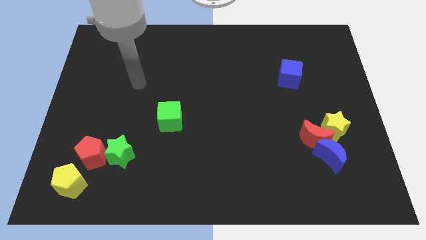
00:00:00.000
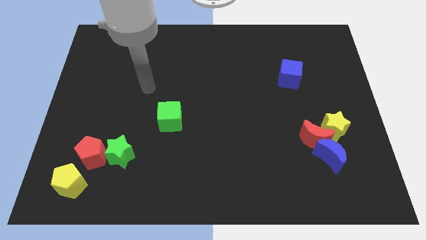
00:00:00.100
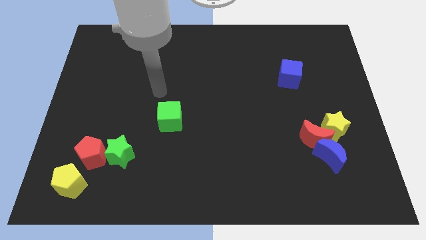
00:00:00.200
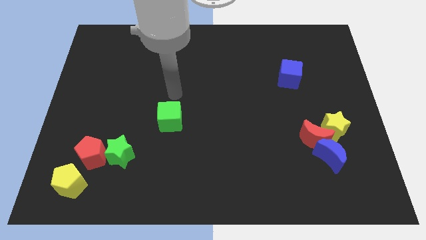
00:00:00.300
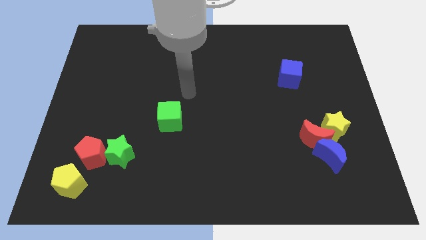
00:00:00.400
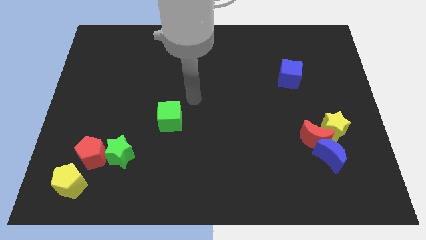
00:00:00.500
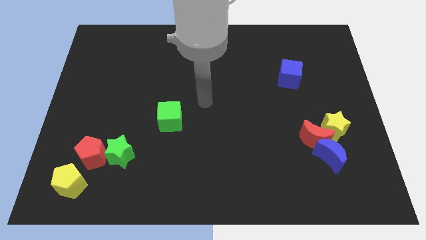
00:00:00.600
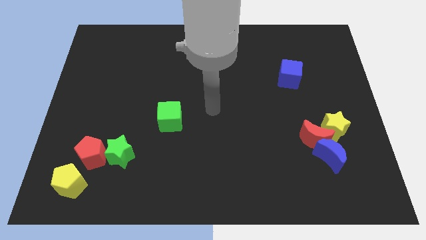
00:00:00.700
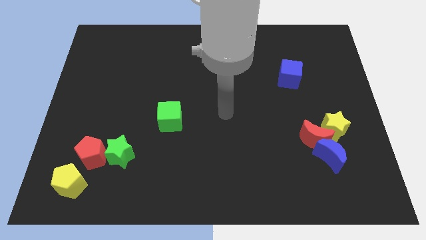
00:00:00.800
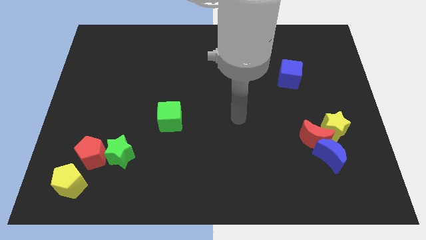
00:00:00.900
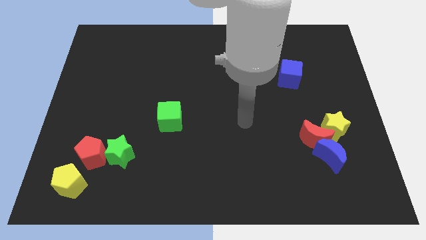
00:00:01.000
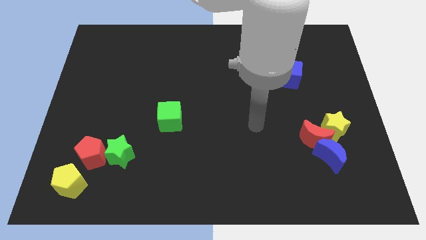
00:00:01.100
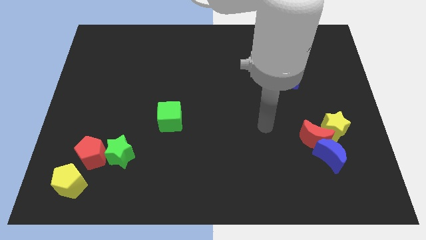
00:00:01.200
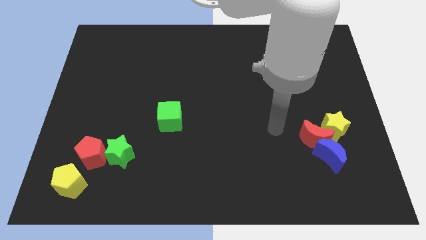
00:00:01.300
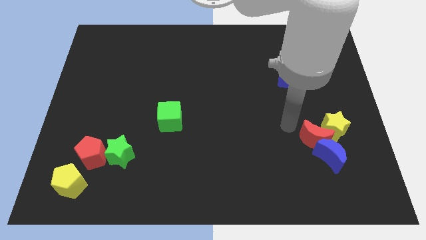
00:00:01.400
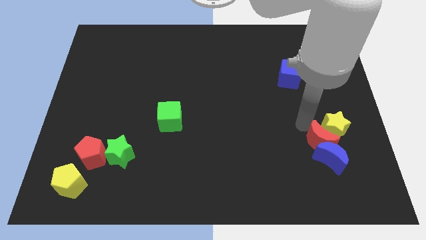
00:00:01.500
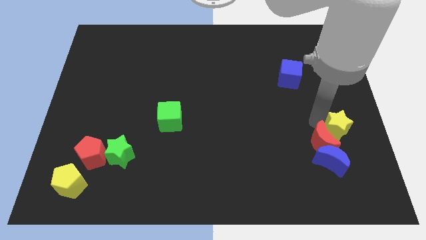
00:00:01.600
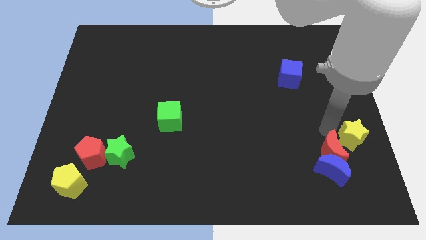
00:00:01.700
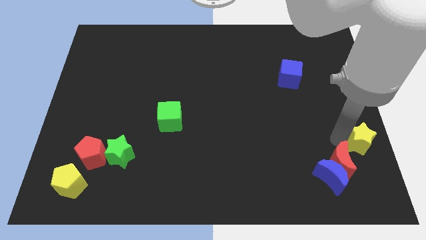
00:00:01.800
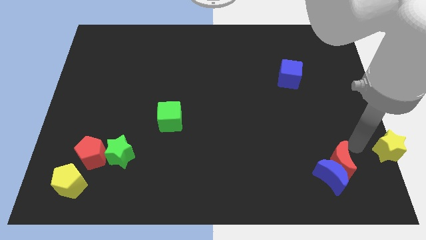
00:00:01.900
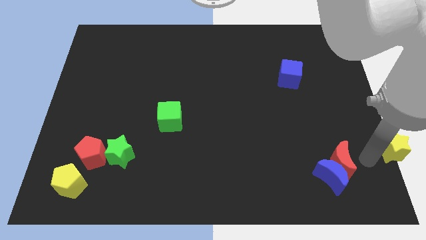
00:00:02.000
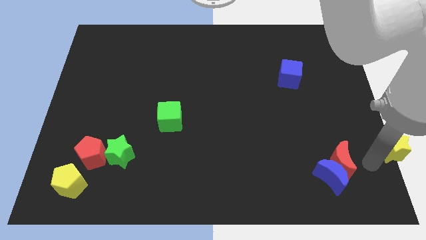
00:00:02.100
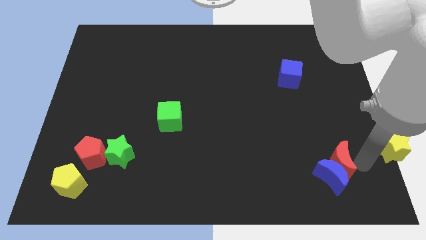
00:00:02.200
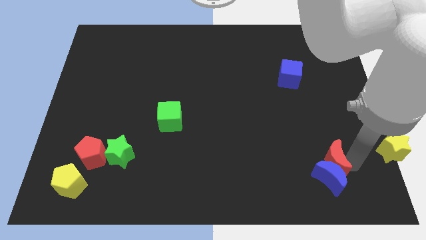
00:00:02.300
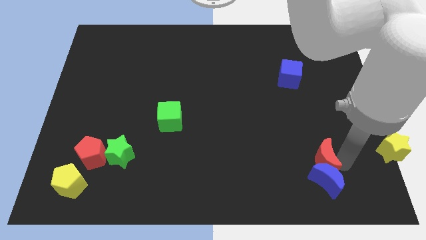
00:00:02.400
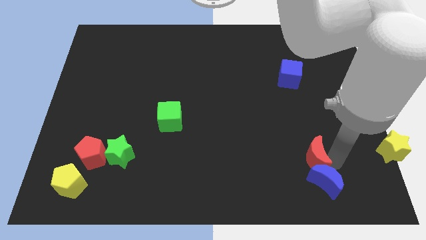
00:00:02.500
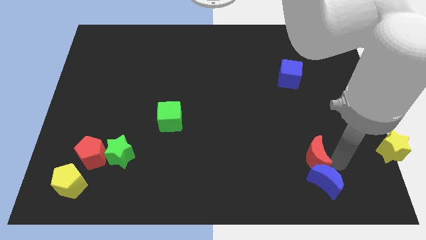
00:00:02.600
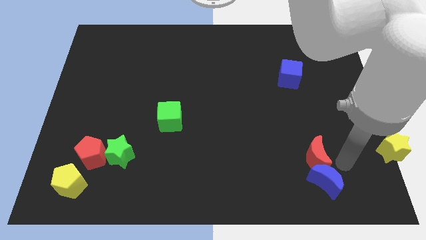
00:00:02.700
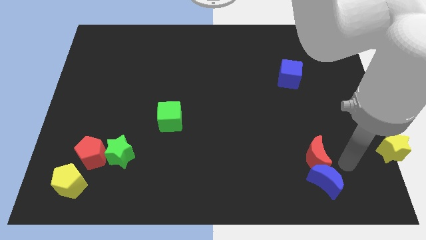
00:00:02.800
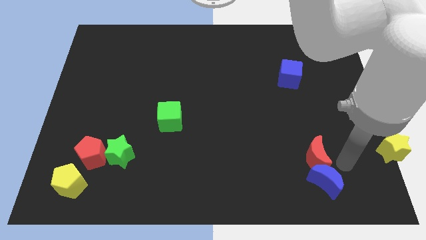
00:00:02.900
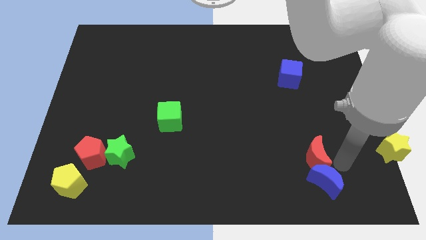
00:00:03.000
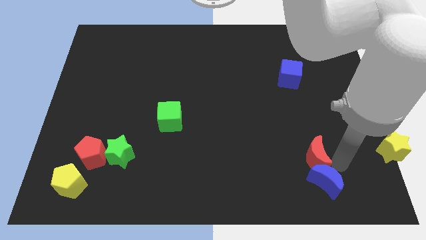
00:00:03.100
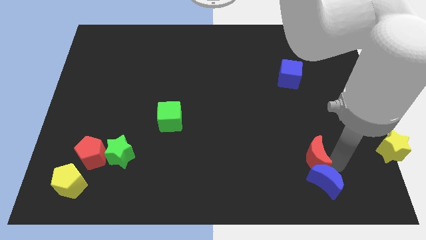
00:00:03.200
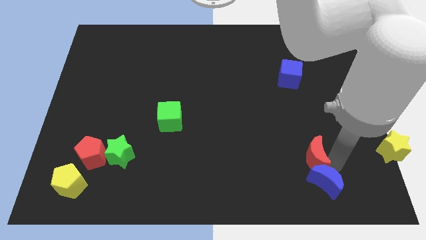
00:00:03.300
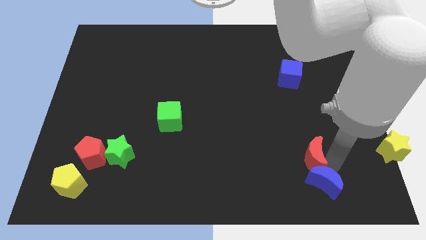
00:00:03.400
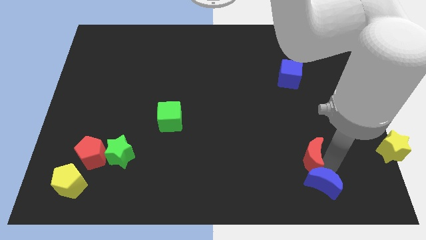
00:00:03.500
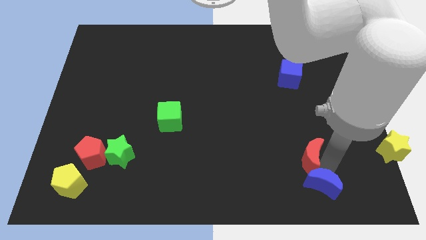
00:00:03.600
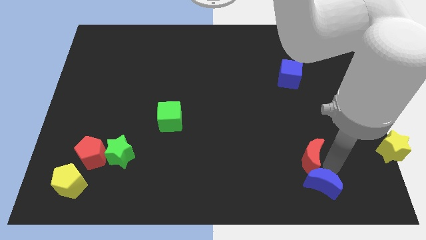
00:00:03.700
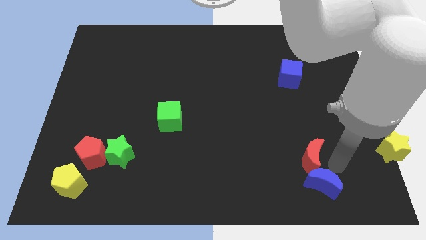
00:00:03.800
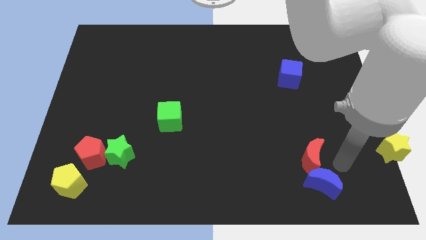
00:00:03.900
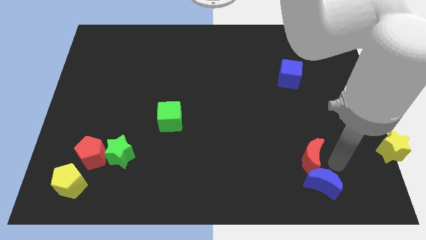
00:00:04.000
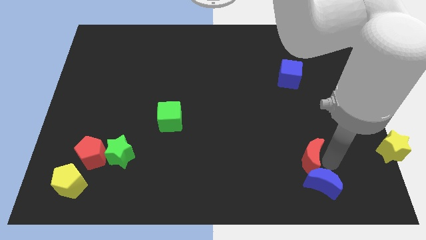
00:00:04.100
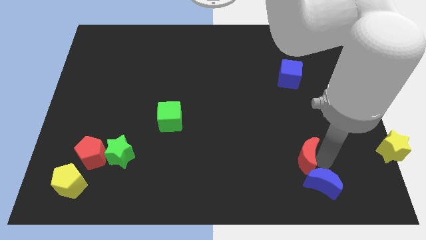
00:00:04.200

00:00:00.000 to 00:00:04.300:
separate the red moon from the blue moon and yellow star

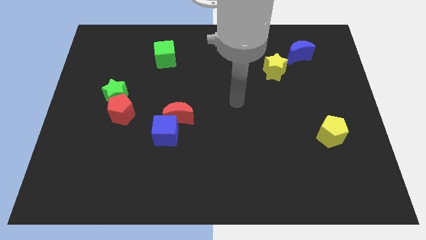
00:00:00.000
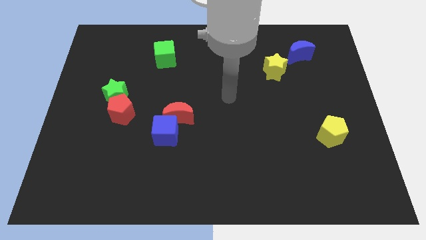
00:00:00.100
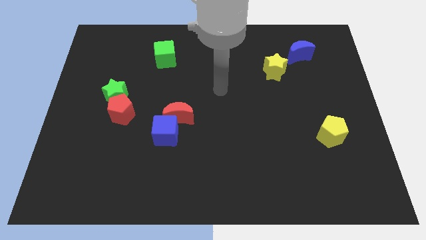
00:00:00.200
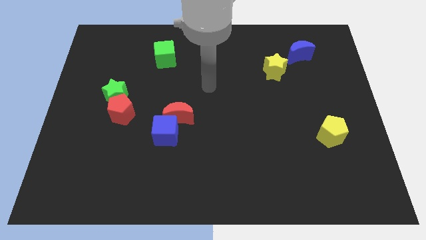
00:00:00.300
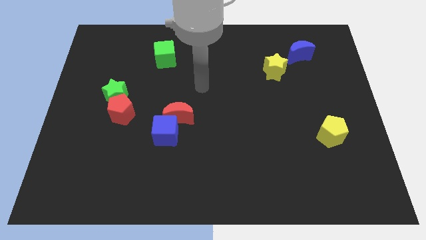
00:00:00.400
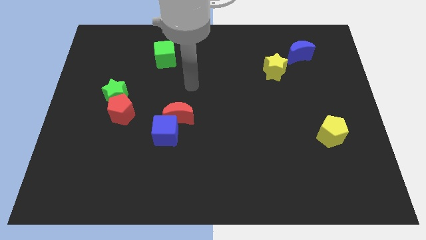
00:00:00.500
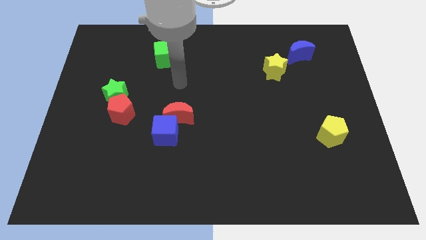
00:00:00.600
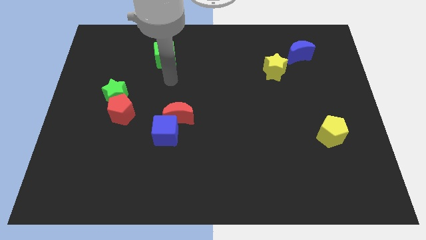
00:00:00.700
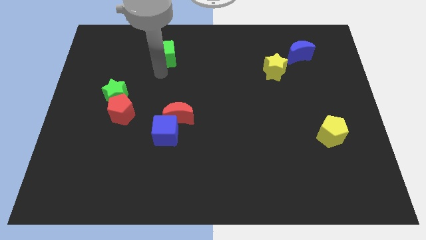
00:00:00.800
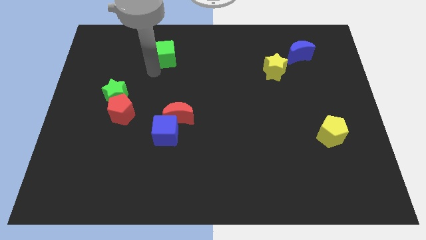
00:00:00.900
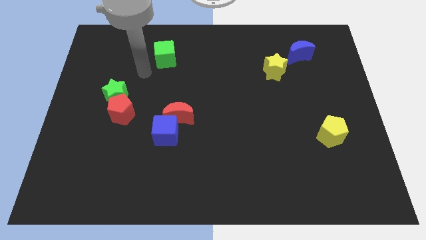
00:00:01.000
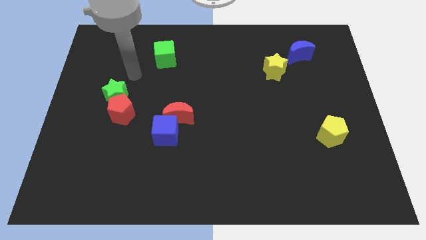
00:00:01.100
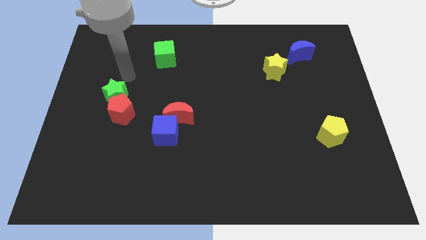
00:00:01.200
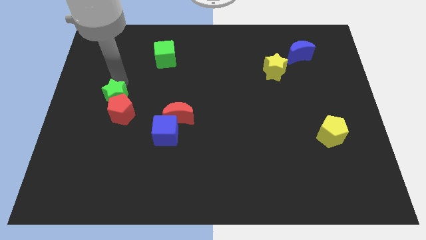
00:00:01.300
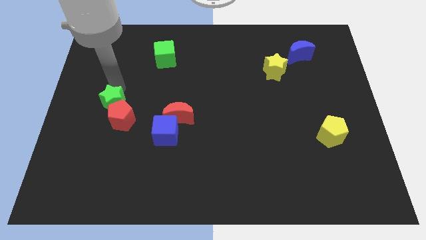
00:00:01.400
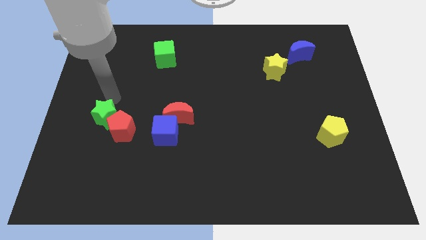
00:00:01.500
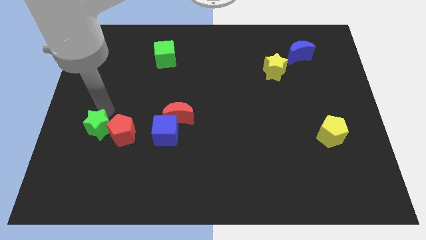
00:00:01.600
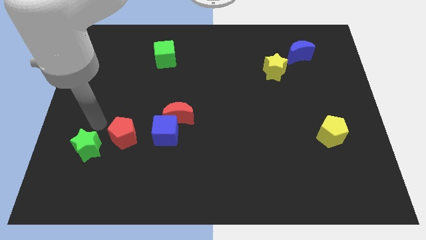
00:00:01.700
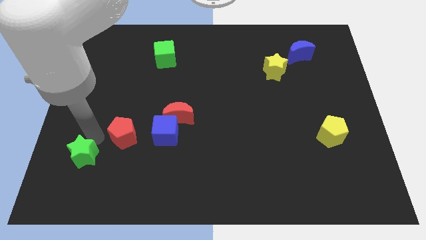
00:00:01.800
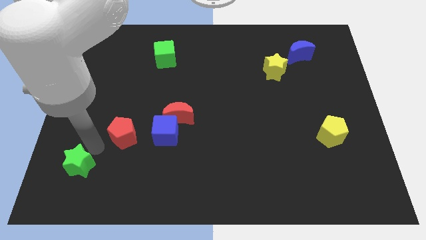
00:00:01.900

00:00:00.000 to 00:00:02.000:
pull the red pentagon apart from the green star

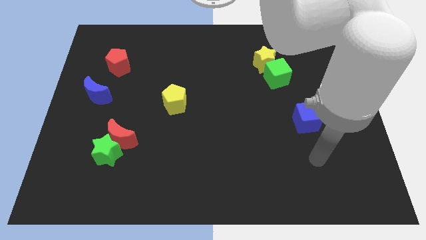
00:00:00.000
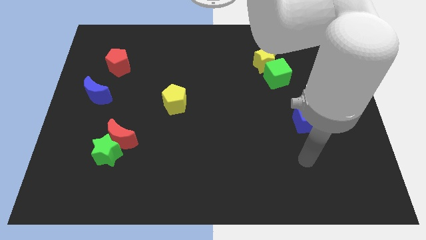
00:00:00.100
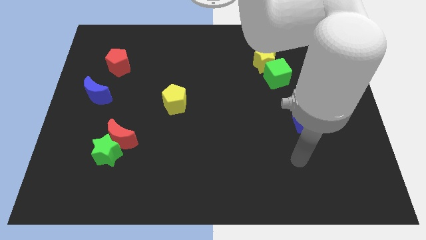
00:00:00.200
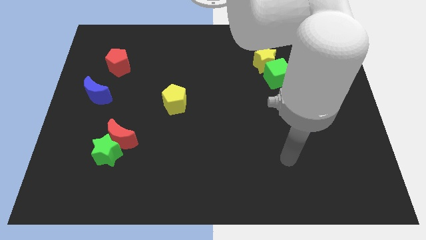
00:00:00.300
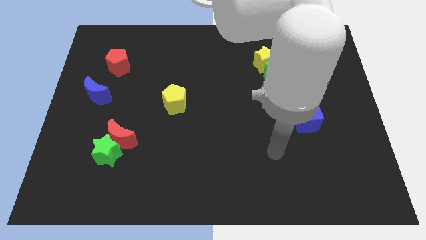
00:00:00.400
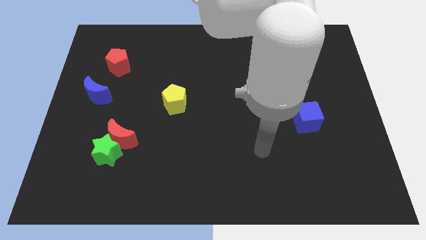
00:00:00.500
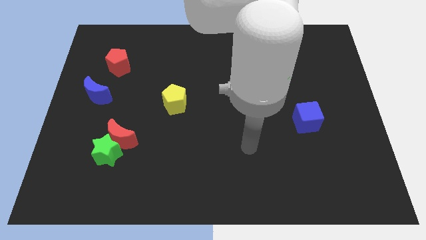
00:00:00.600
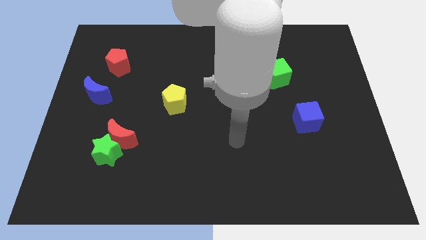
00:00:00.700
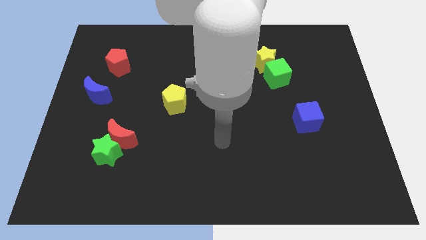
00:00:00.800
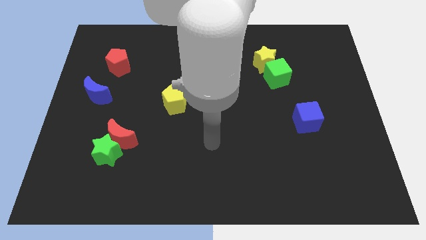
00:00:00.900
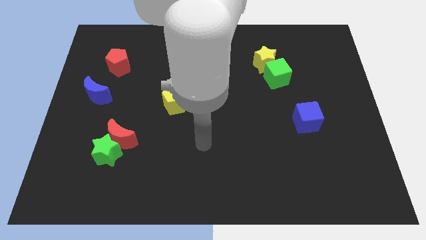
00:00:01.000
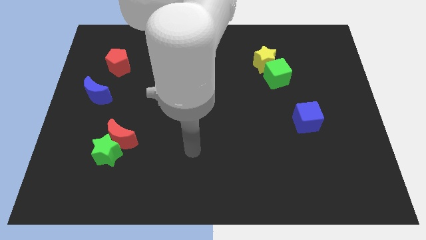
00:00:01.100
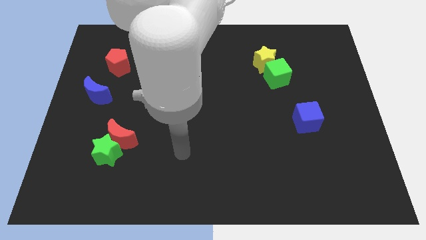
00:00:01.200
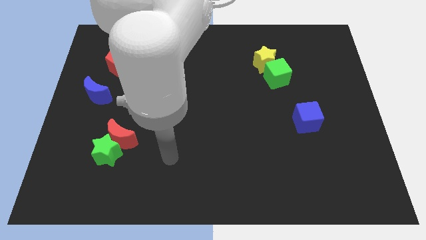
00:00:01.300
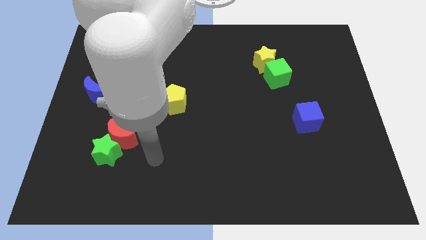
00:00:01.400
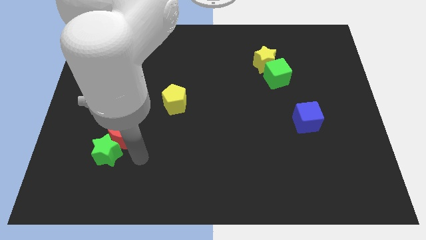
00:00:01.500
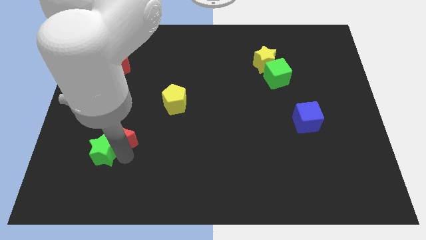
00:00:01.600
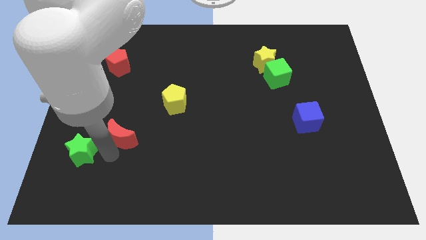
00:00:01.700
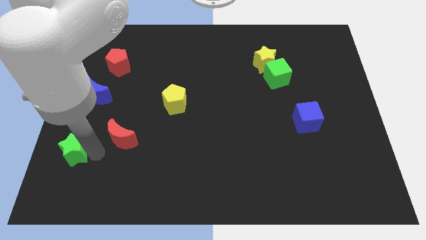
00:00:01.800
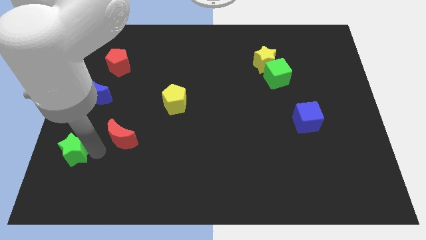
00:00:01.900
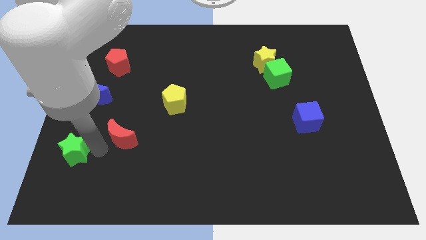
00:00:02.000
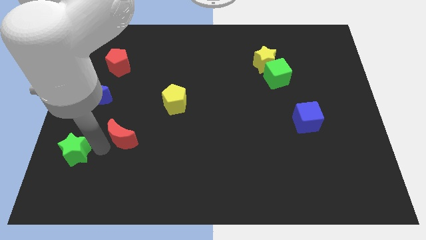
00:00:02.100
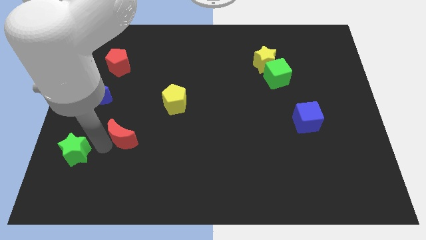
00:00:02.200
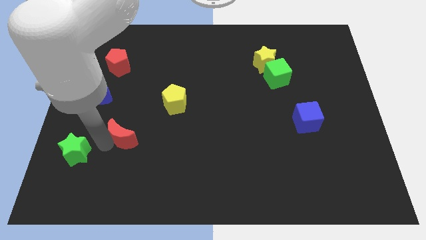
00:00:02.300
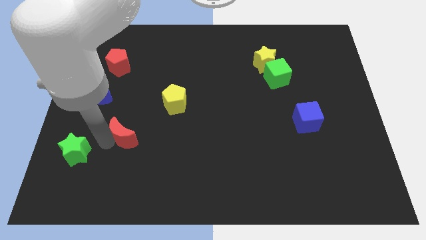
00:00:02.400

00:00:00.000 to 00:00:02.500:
separate the red moon from the green star

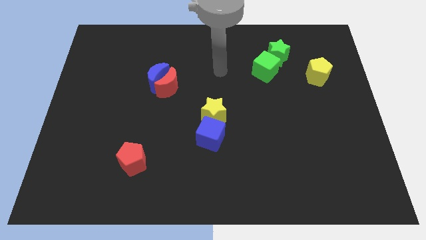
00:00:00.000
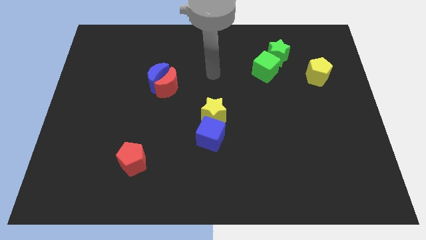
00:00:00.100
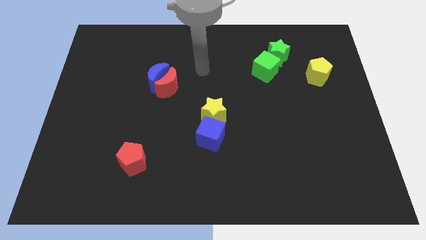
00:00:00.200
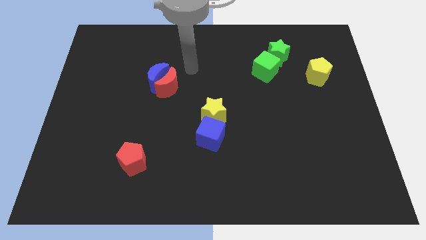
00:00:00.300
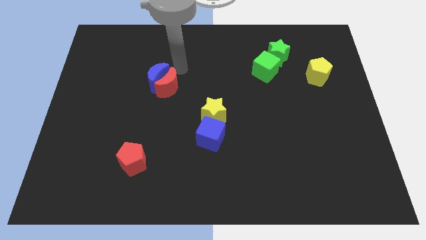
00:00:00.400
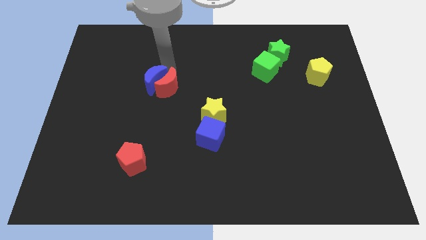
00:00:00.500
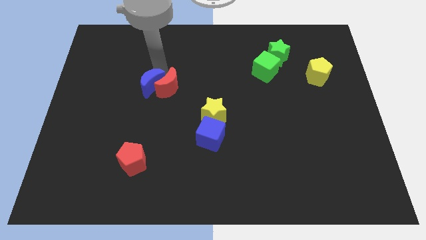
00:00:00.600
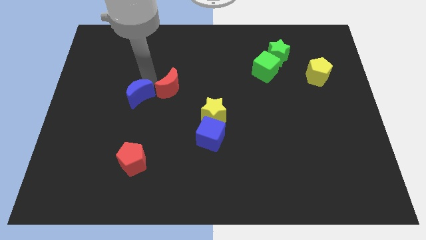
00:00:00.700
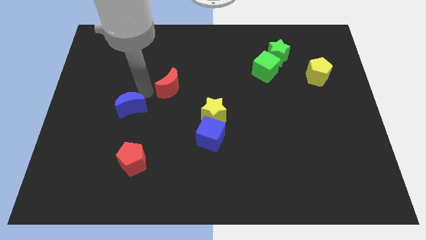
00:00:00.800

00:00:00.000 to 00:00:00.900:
move the red moon away from the blue moon
